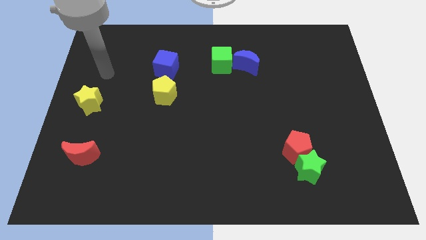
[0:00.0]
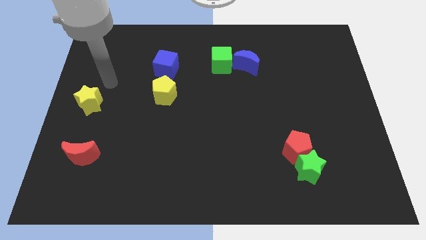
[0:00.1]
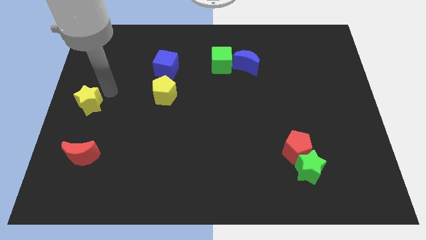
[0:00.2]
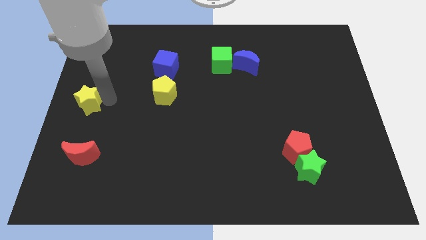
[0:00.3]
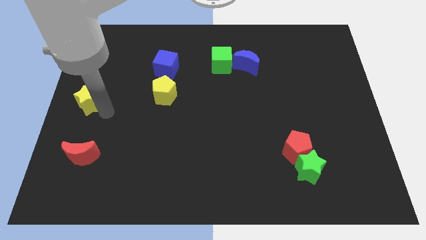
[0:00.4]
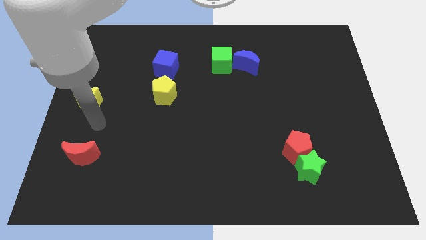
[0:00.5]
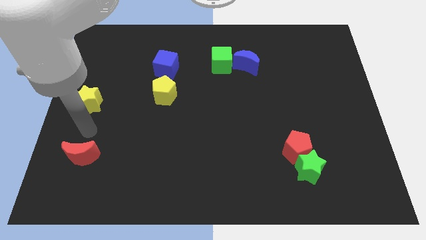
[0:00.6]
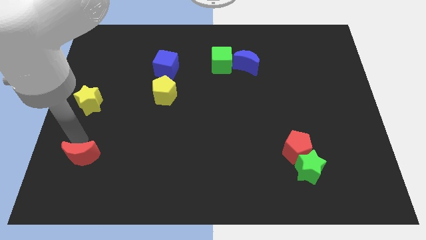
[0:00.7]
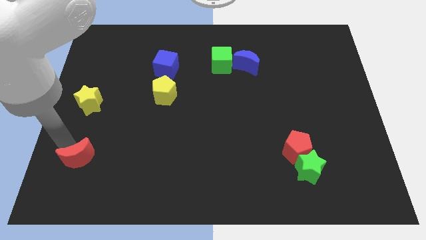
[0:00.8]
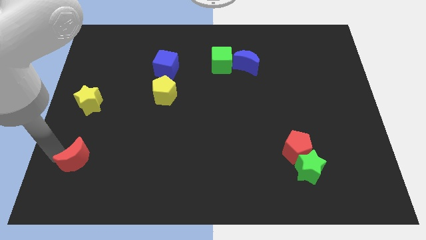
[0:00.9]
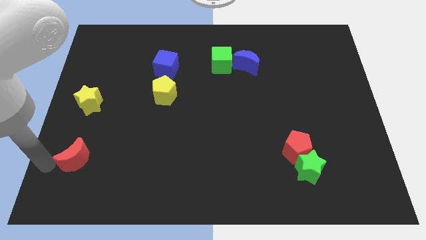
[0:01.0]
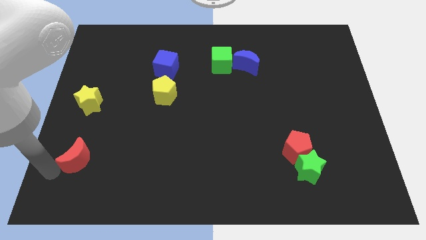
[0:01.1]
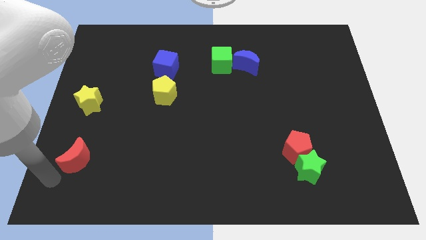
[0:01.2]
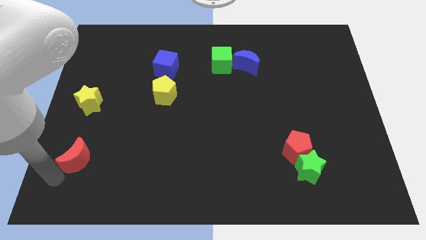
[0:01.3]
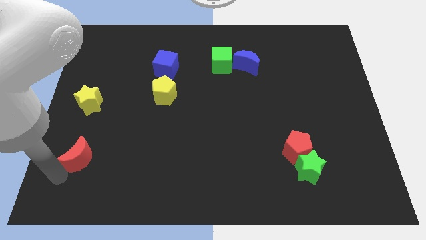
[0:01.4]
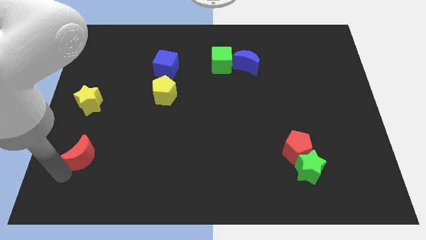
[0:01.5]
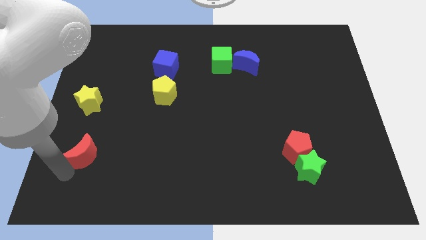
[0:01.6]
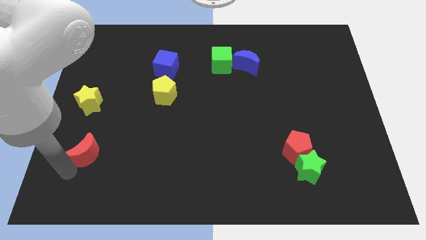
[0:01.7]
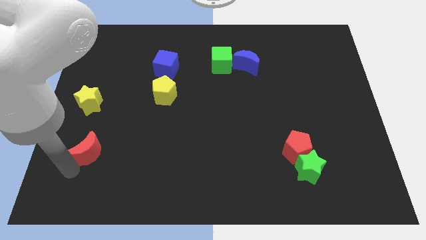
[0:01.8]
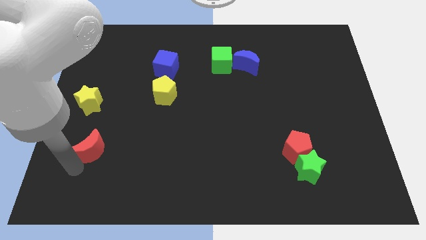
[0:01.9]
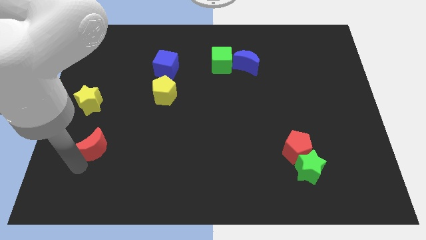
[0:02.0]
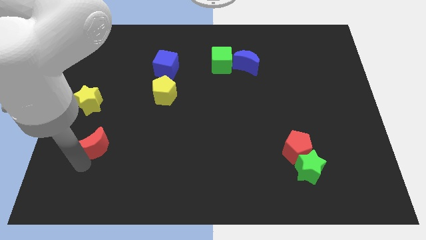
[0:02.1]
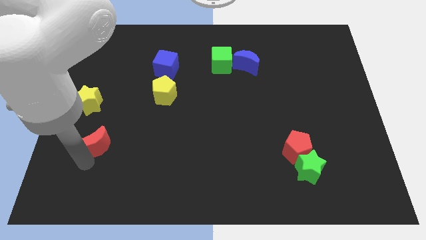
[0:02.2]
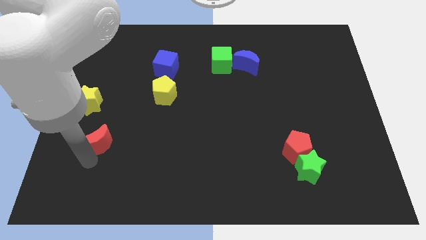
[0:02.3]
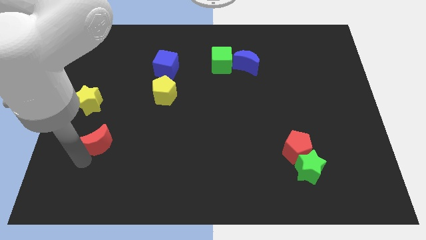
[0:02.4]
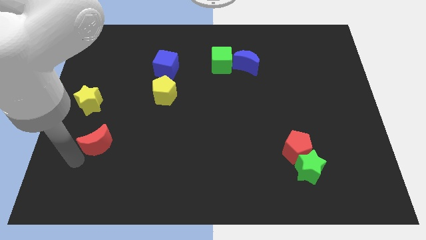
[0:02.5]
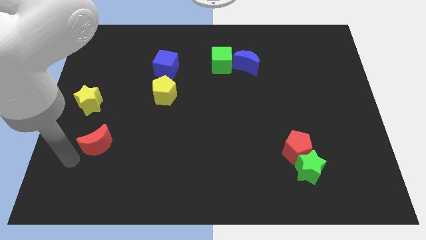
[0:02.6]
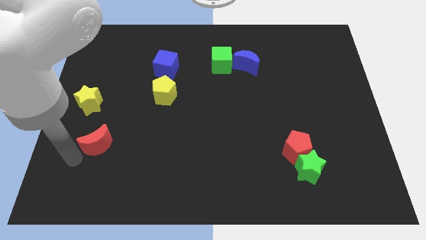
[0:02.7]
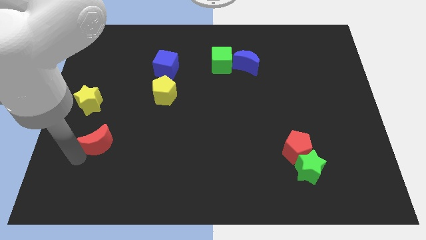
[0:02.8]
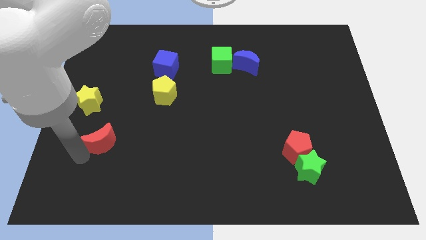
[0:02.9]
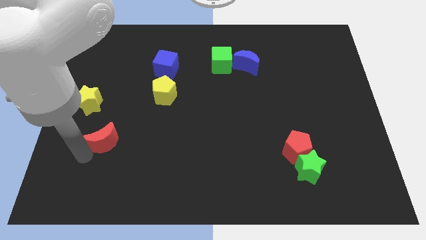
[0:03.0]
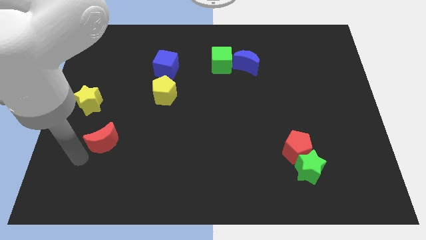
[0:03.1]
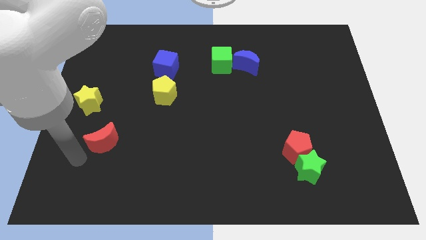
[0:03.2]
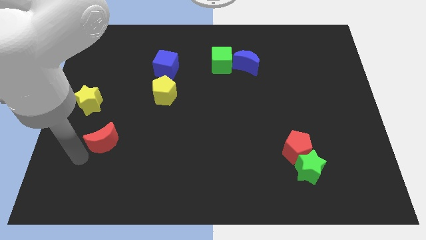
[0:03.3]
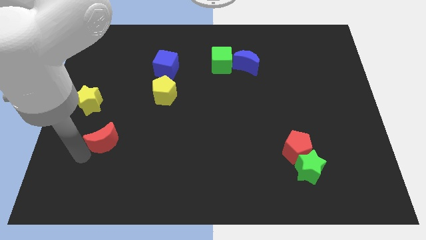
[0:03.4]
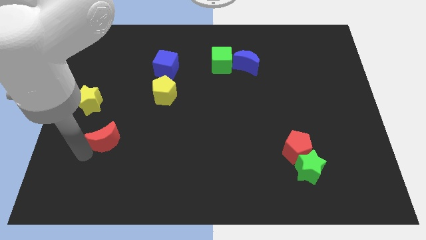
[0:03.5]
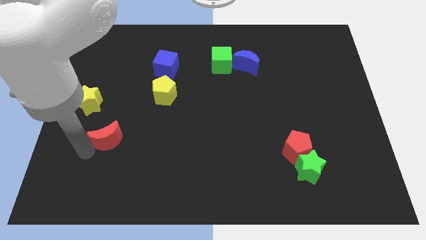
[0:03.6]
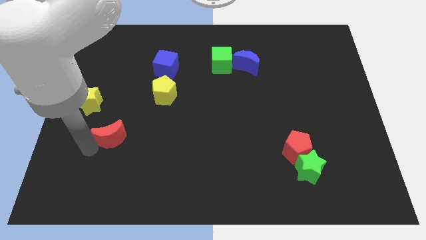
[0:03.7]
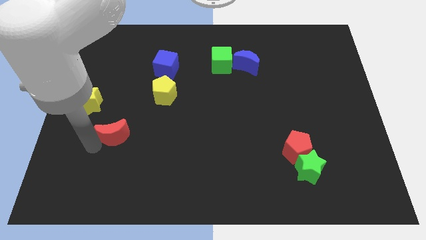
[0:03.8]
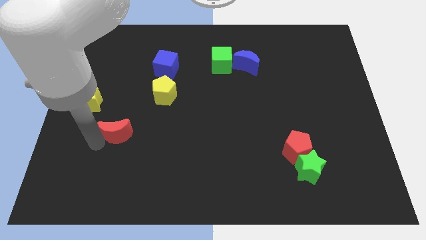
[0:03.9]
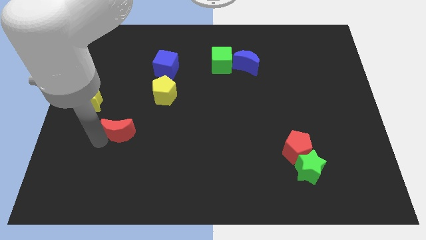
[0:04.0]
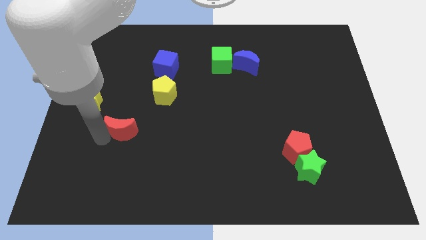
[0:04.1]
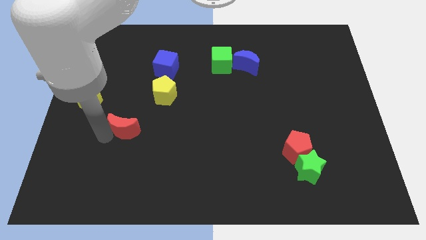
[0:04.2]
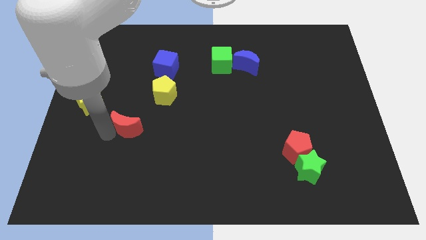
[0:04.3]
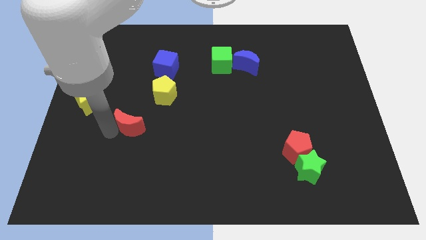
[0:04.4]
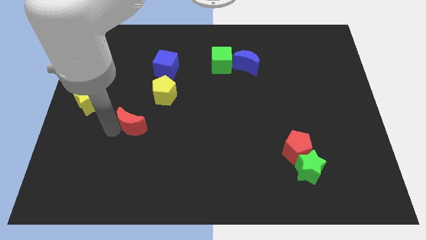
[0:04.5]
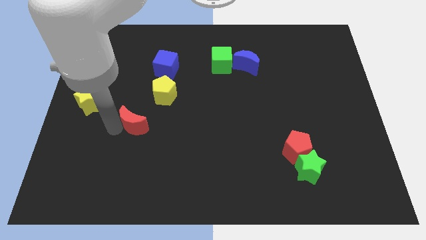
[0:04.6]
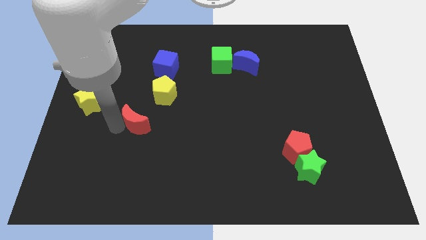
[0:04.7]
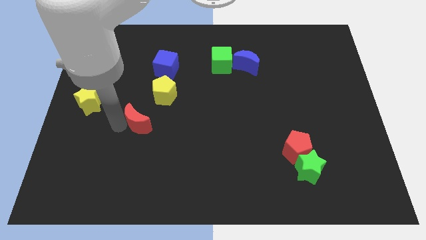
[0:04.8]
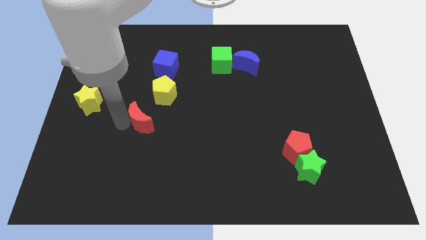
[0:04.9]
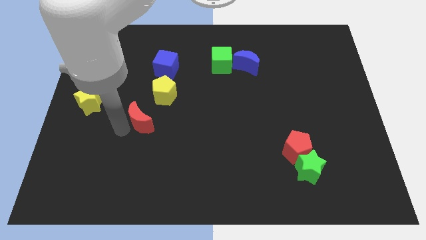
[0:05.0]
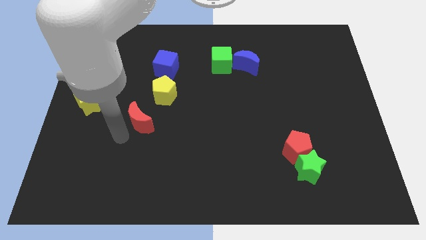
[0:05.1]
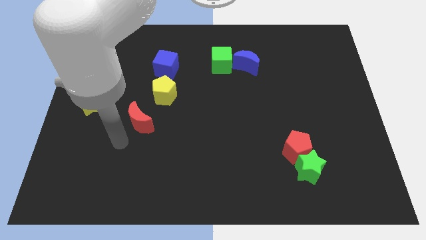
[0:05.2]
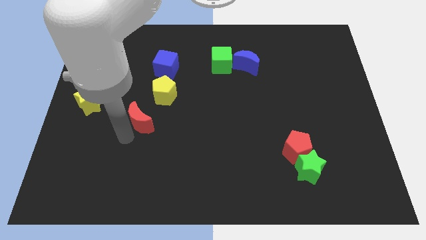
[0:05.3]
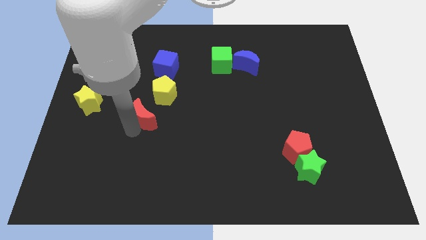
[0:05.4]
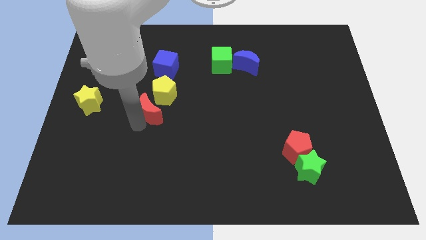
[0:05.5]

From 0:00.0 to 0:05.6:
push the red moon to the bottom of the blue cube

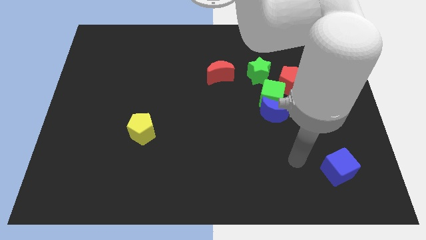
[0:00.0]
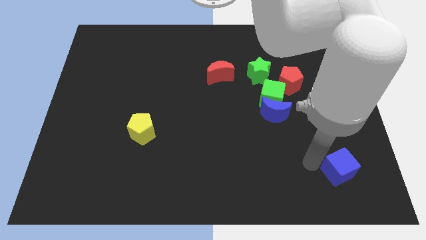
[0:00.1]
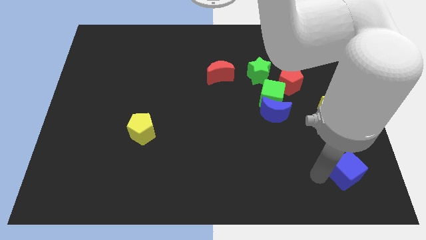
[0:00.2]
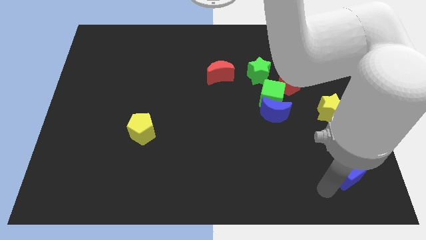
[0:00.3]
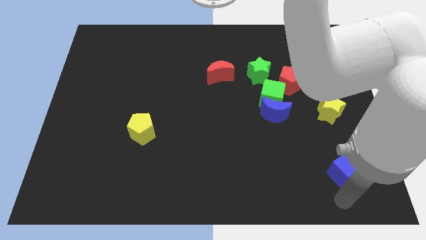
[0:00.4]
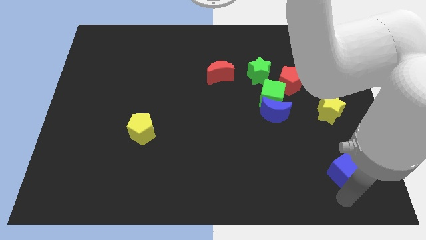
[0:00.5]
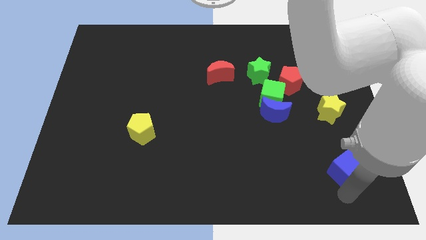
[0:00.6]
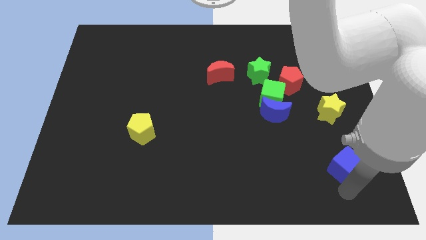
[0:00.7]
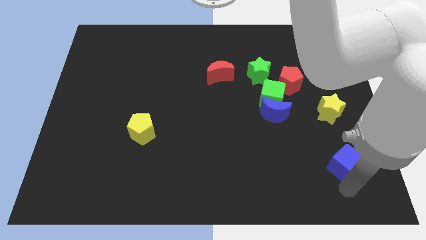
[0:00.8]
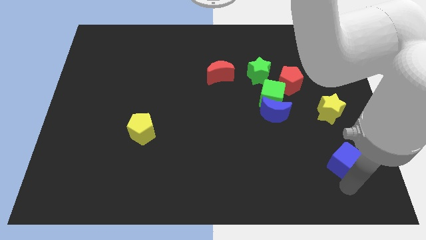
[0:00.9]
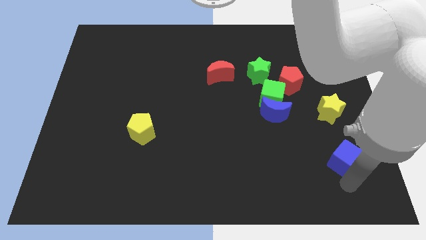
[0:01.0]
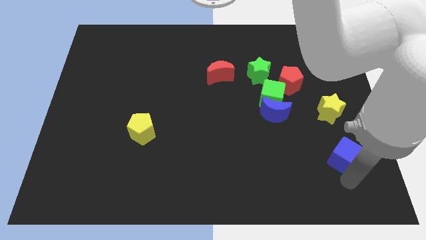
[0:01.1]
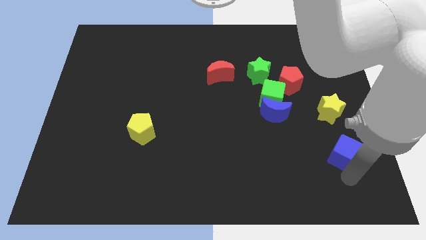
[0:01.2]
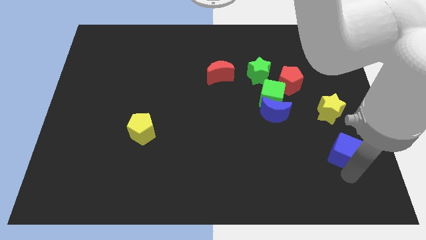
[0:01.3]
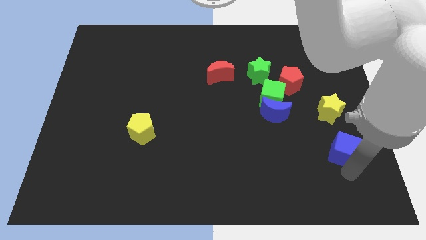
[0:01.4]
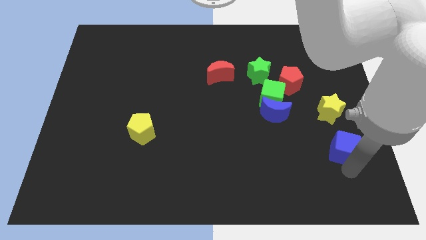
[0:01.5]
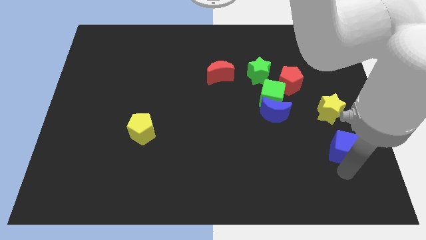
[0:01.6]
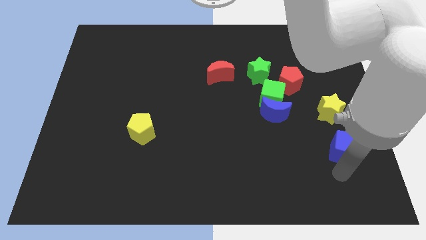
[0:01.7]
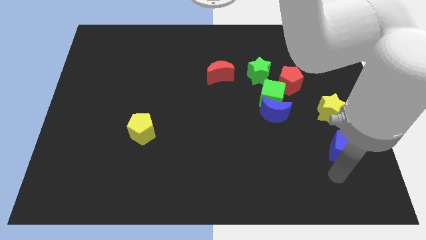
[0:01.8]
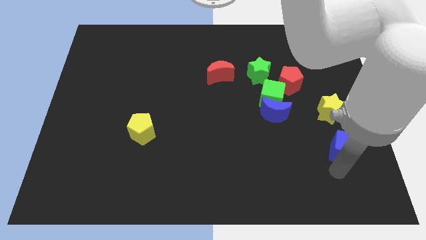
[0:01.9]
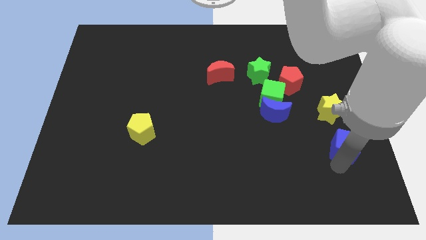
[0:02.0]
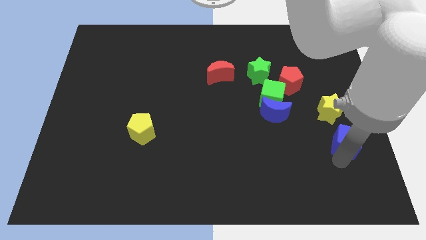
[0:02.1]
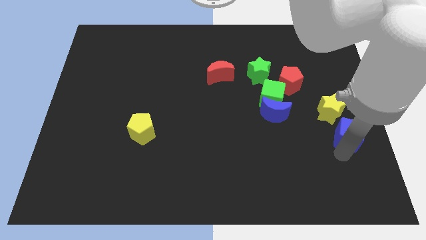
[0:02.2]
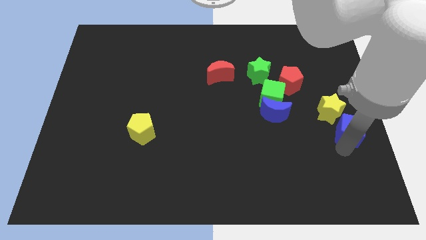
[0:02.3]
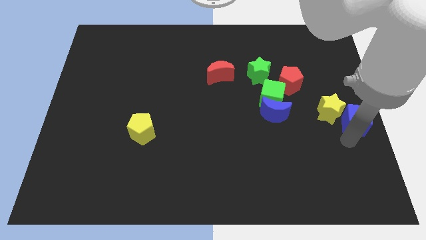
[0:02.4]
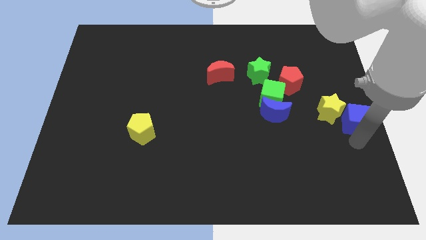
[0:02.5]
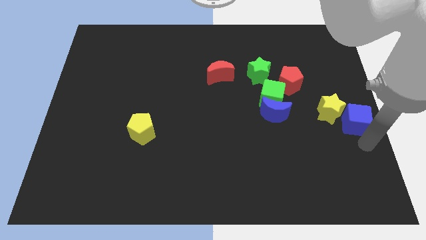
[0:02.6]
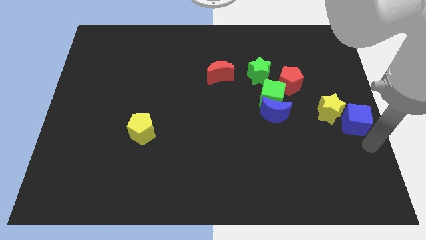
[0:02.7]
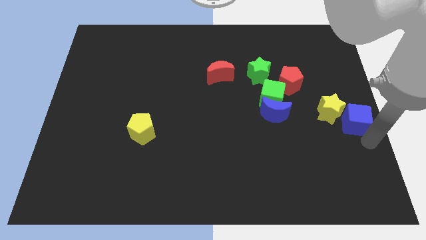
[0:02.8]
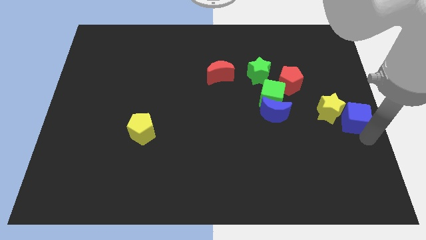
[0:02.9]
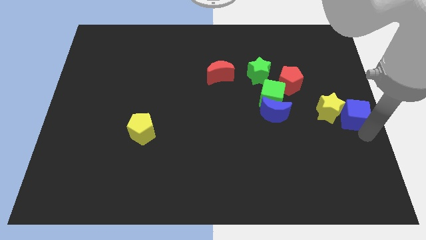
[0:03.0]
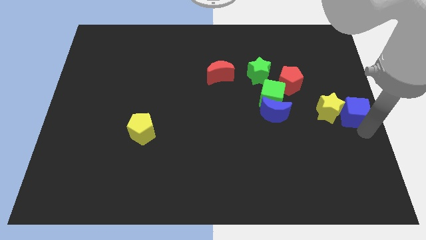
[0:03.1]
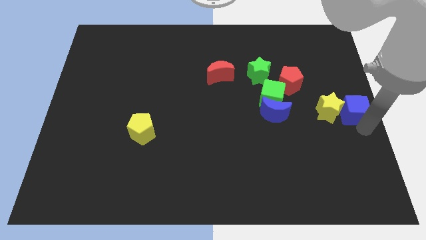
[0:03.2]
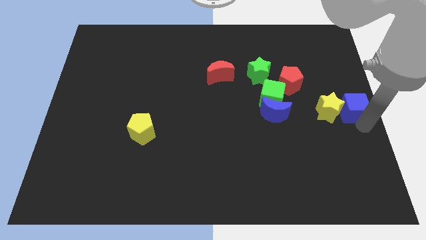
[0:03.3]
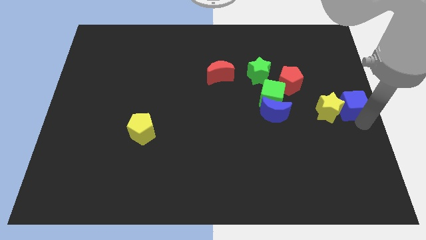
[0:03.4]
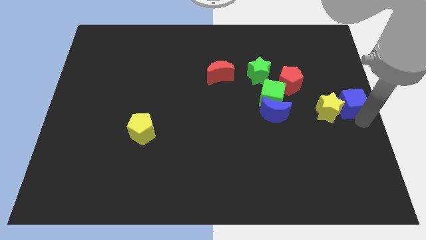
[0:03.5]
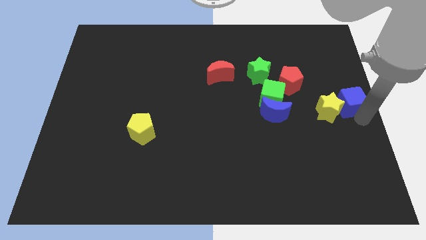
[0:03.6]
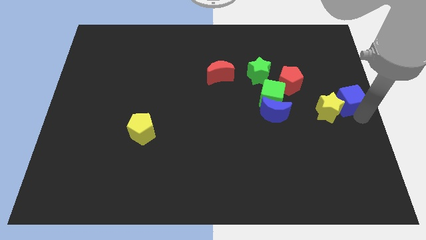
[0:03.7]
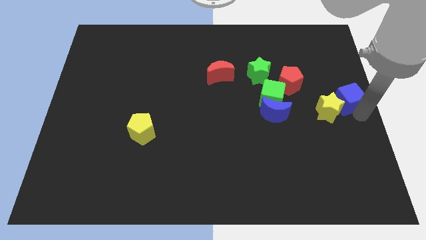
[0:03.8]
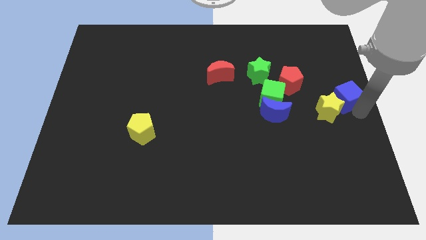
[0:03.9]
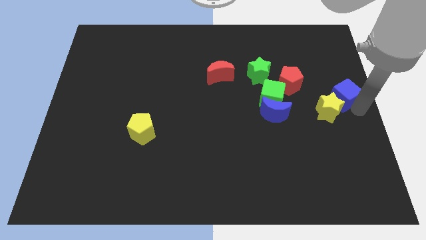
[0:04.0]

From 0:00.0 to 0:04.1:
put the blue cube to the right side of the red pentagon
